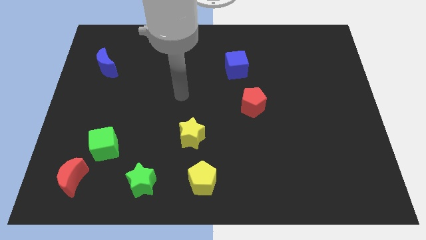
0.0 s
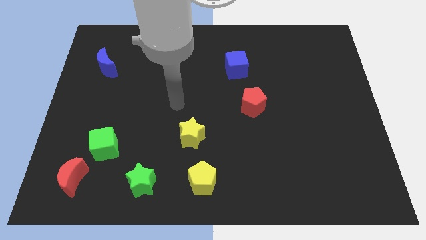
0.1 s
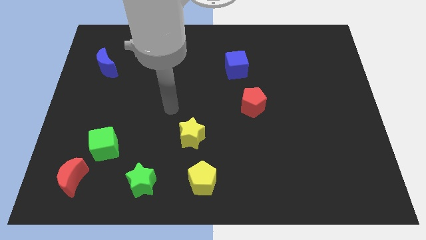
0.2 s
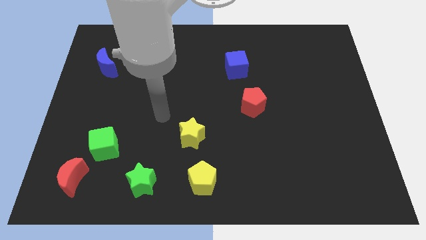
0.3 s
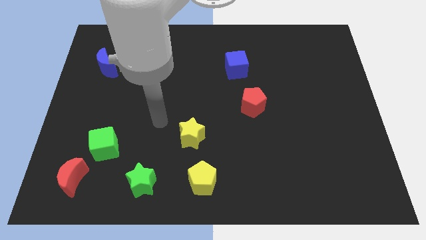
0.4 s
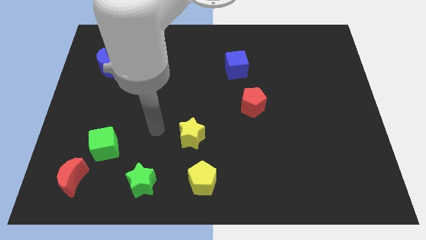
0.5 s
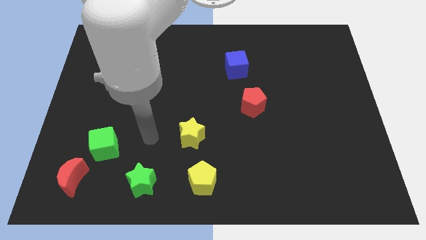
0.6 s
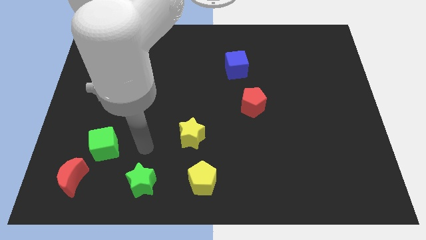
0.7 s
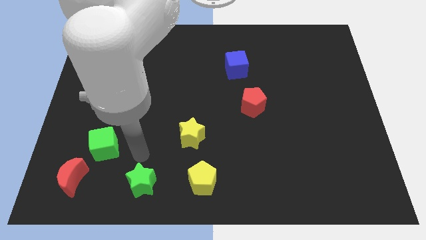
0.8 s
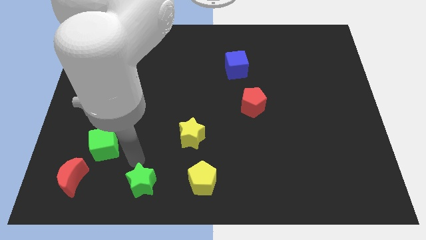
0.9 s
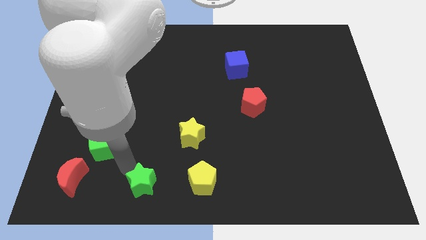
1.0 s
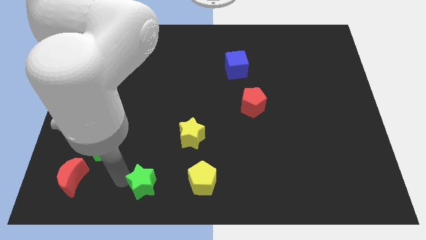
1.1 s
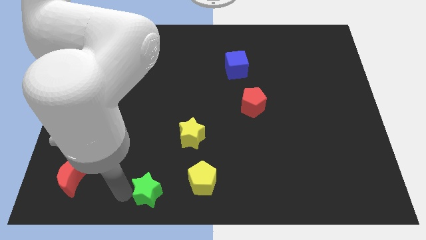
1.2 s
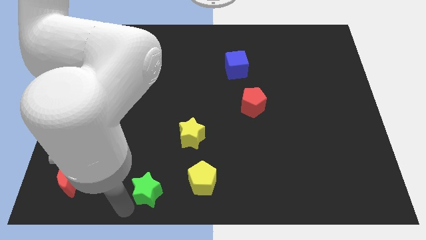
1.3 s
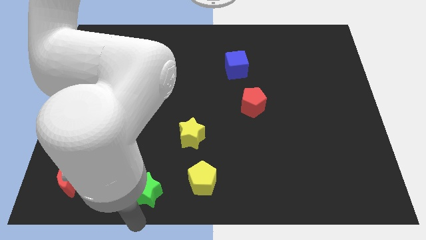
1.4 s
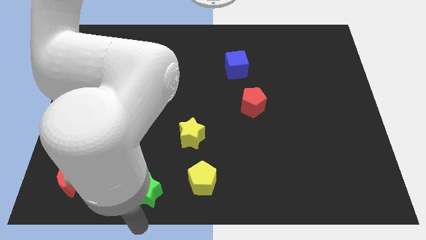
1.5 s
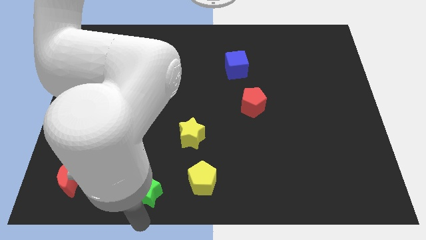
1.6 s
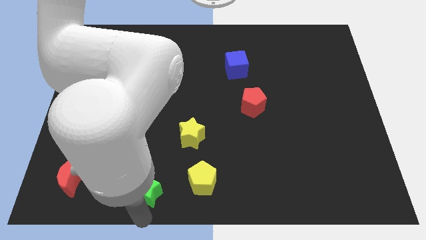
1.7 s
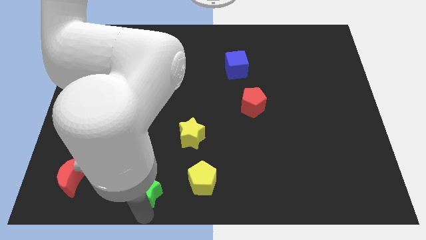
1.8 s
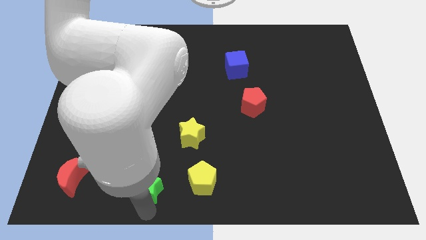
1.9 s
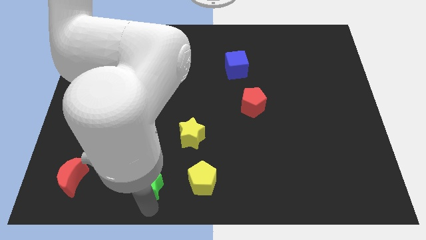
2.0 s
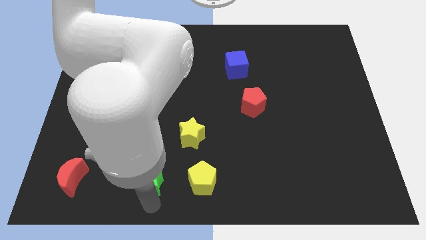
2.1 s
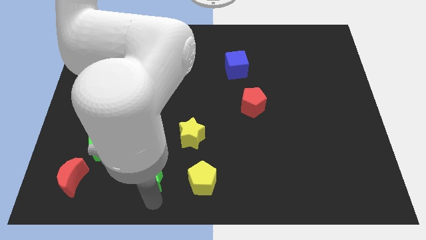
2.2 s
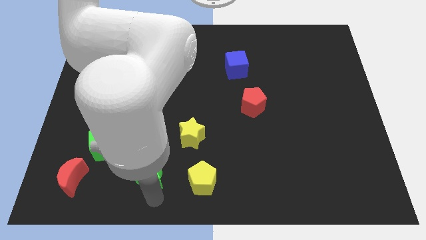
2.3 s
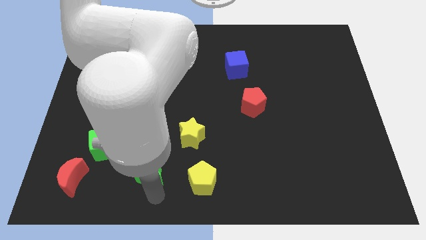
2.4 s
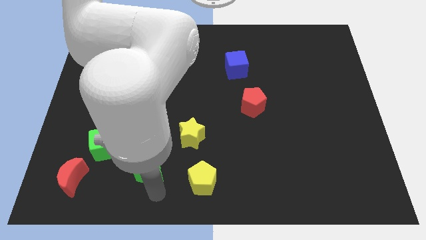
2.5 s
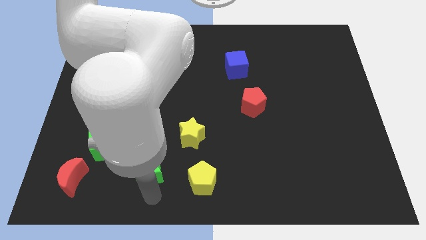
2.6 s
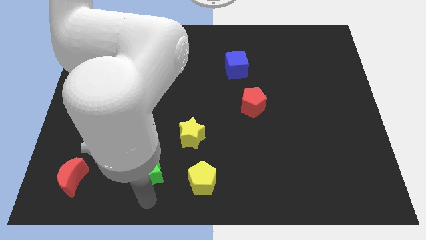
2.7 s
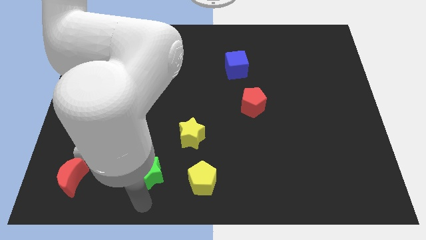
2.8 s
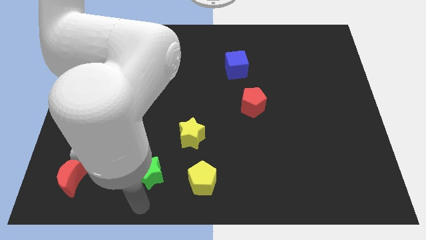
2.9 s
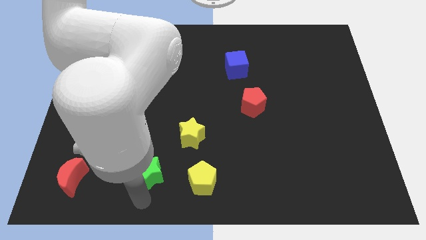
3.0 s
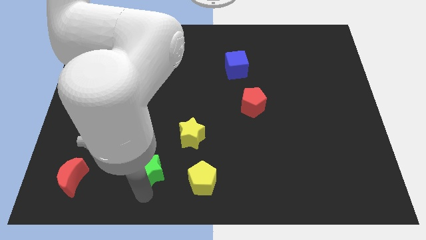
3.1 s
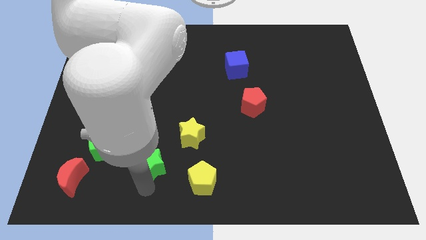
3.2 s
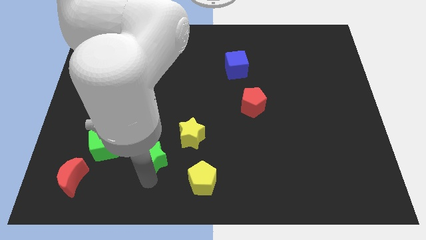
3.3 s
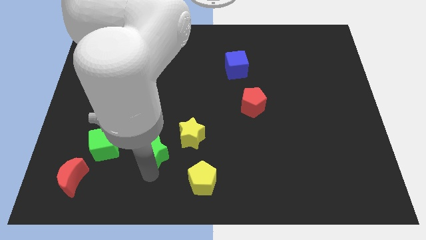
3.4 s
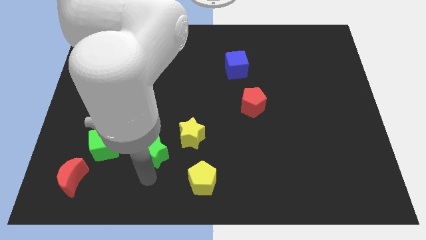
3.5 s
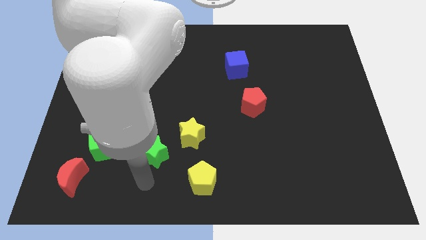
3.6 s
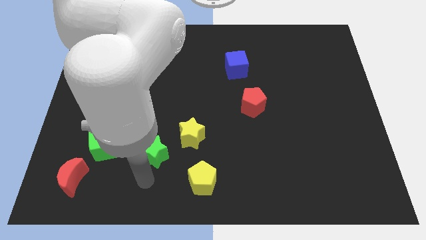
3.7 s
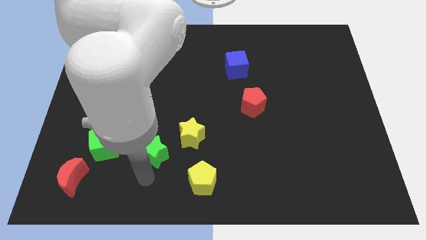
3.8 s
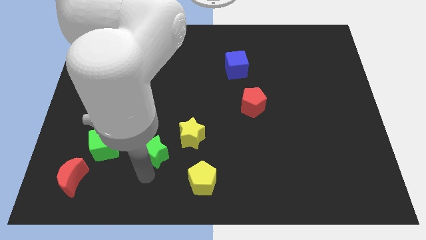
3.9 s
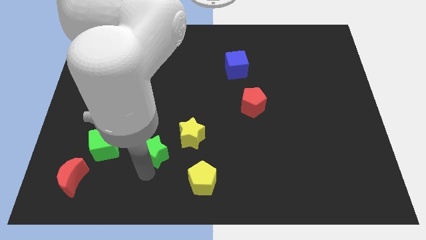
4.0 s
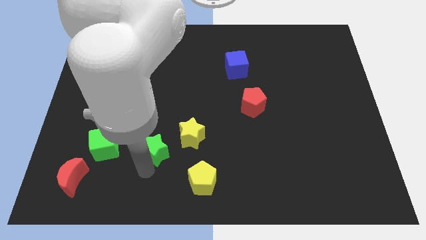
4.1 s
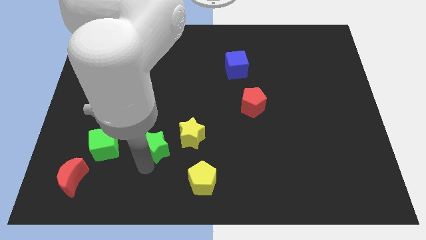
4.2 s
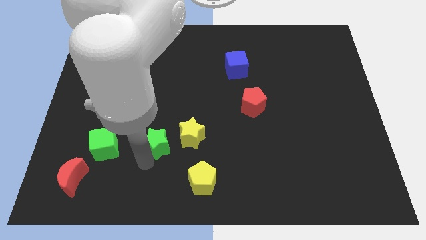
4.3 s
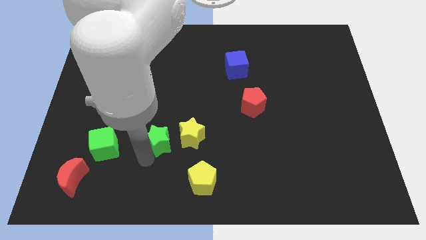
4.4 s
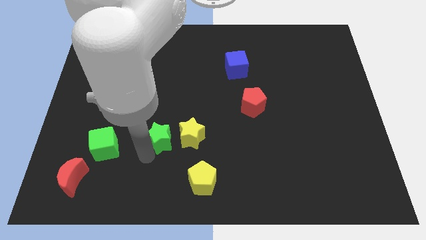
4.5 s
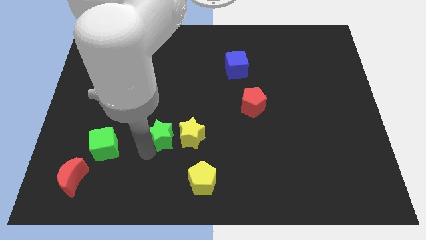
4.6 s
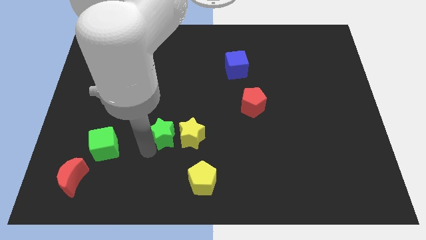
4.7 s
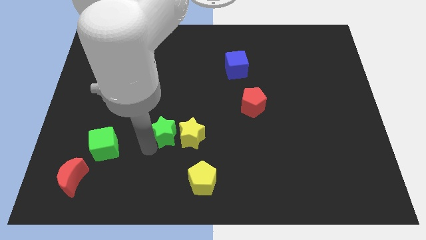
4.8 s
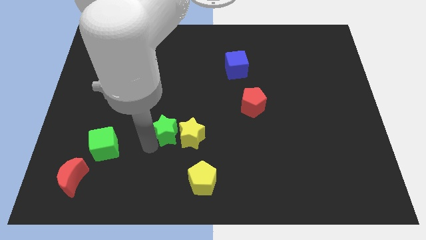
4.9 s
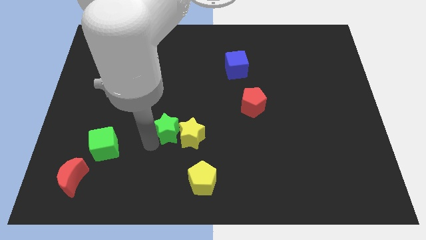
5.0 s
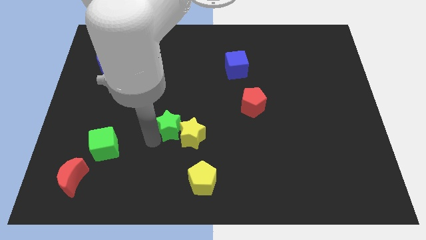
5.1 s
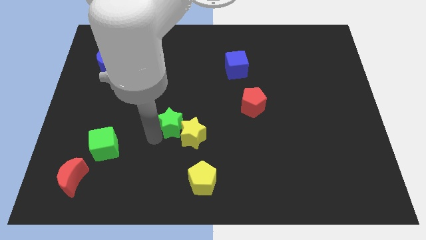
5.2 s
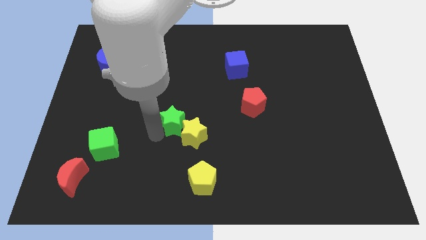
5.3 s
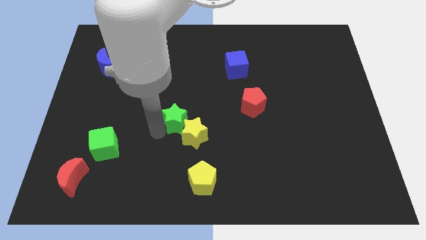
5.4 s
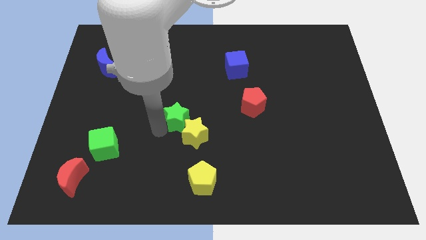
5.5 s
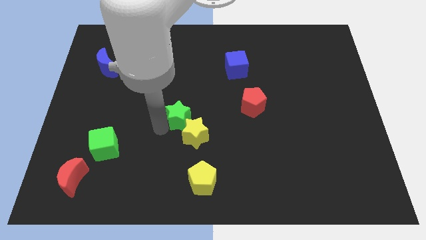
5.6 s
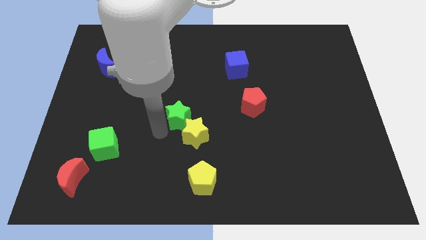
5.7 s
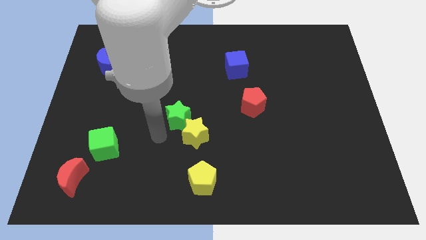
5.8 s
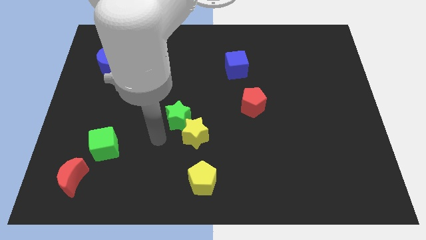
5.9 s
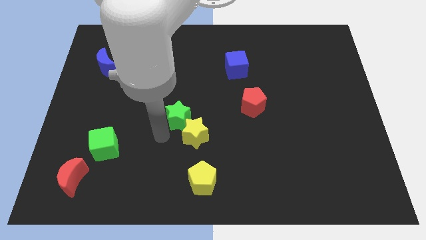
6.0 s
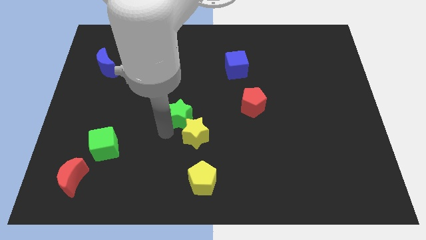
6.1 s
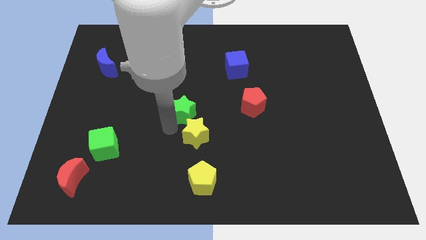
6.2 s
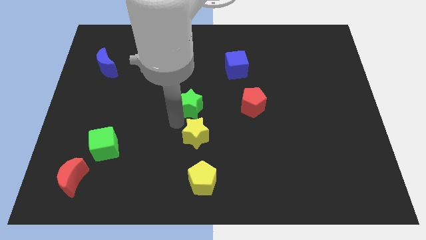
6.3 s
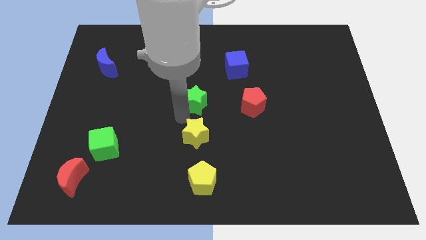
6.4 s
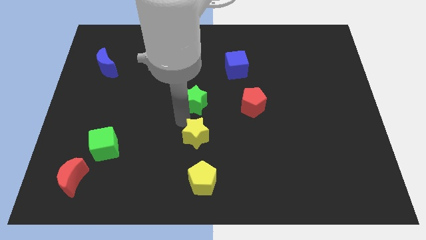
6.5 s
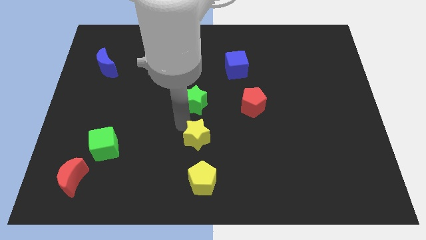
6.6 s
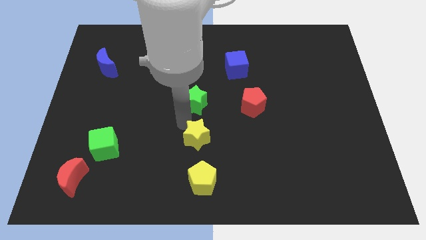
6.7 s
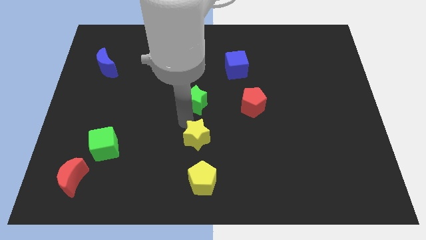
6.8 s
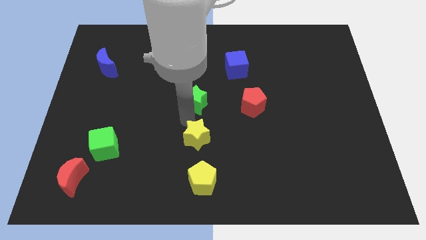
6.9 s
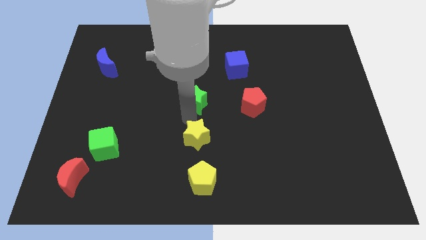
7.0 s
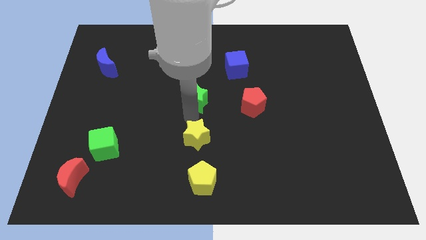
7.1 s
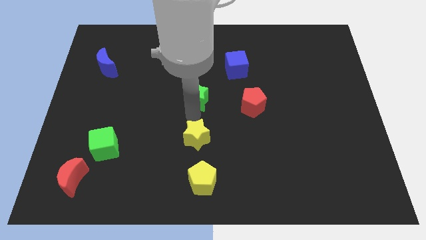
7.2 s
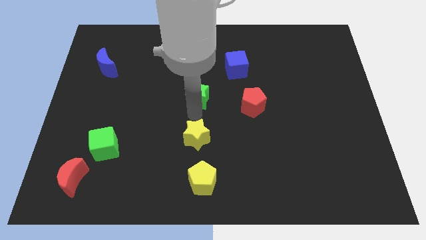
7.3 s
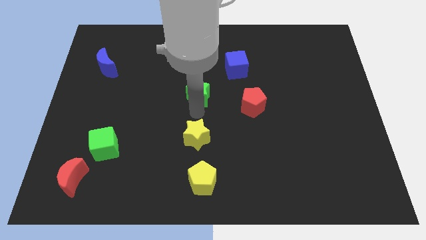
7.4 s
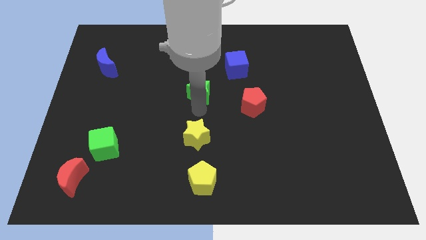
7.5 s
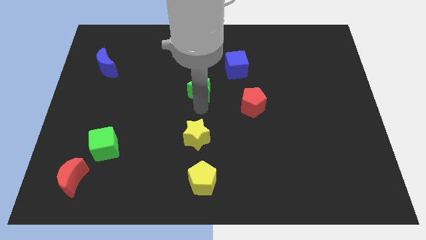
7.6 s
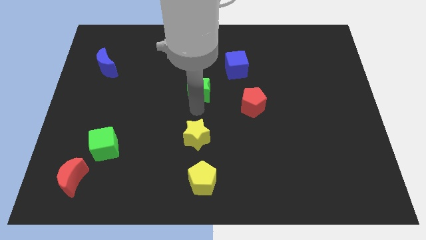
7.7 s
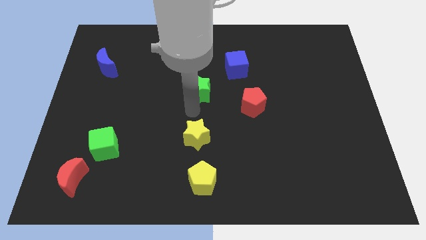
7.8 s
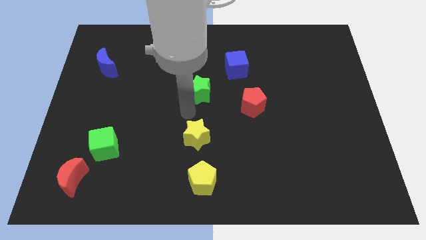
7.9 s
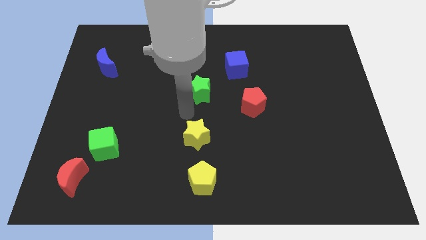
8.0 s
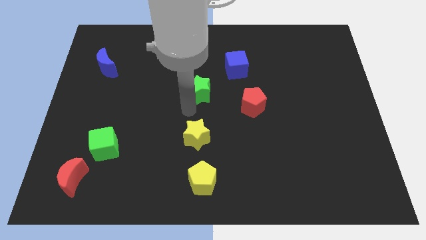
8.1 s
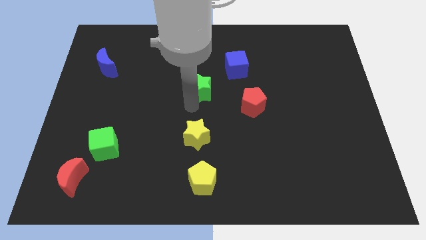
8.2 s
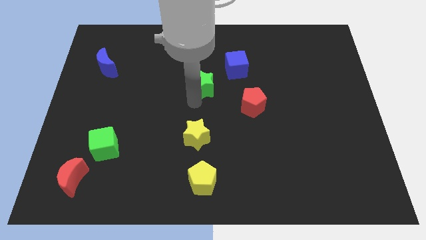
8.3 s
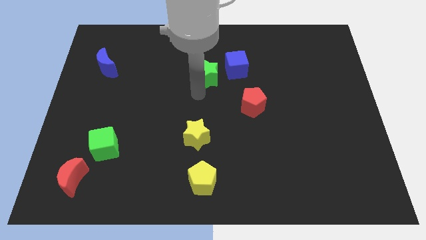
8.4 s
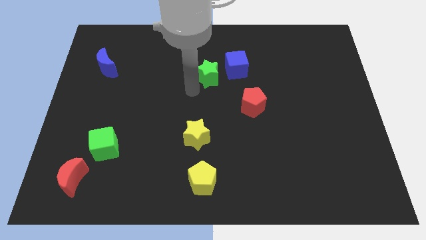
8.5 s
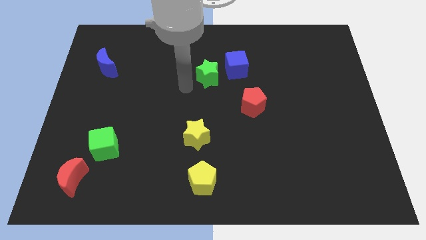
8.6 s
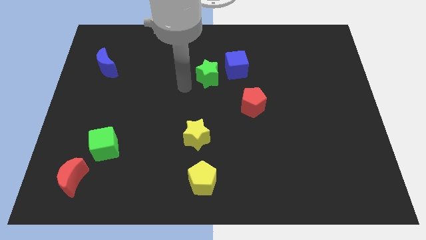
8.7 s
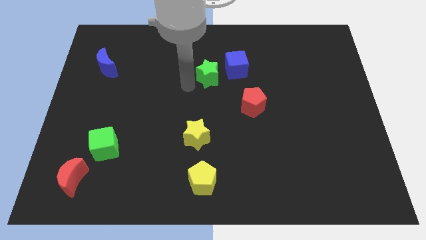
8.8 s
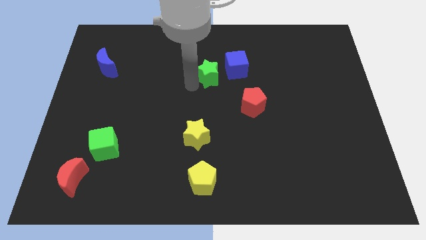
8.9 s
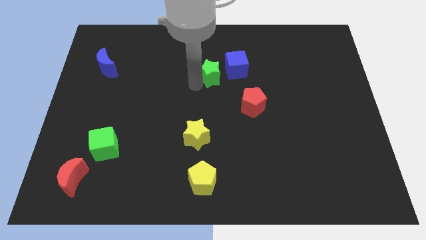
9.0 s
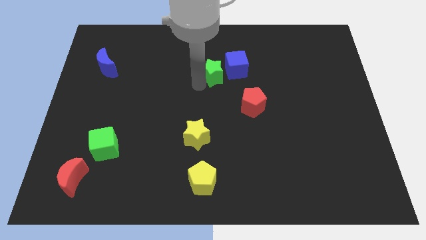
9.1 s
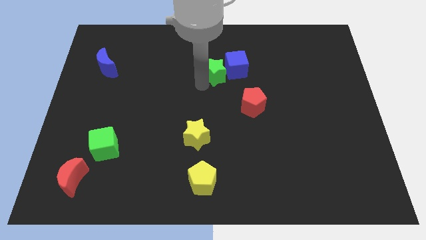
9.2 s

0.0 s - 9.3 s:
put the green star to the blue cube
